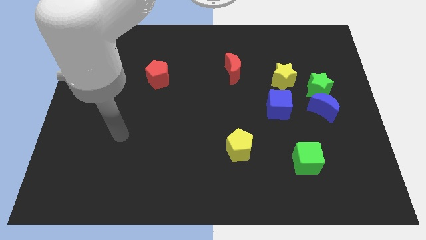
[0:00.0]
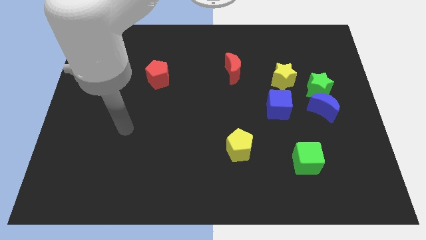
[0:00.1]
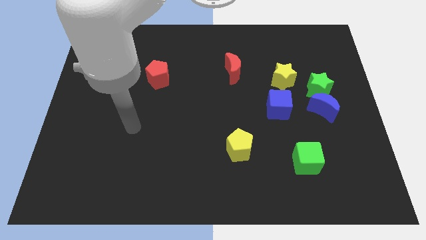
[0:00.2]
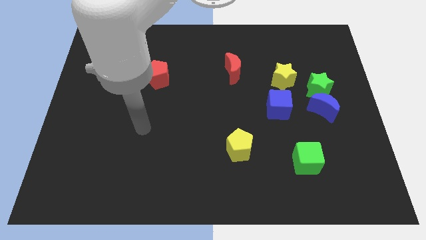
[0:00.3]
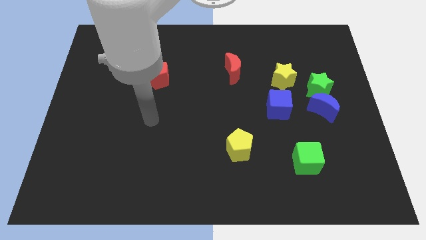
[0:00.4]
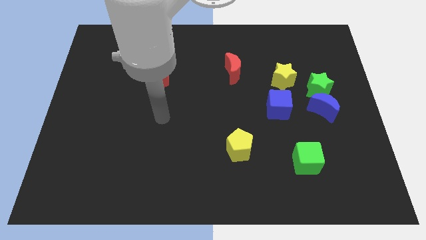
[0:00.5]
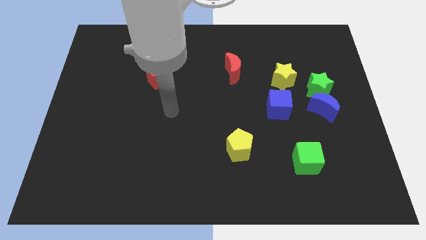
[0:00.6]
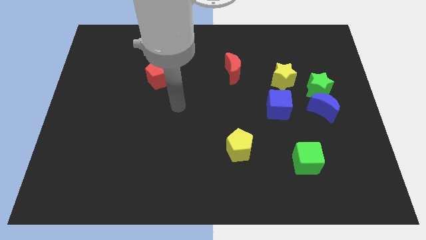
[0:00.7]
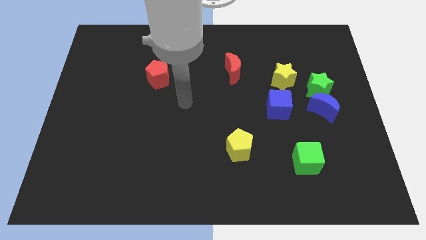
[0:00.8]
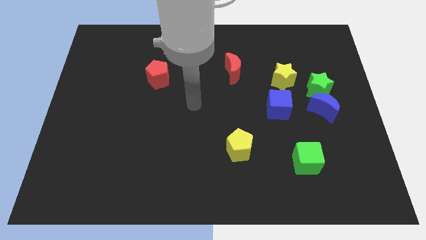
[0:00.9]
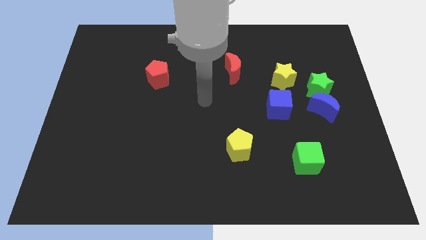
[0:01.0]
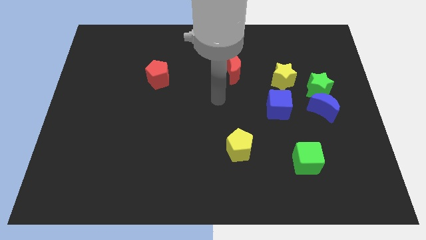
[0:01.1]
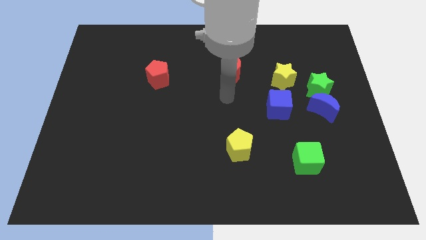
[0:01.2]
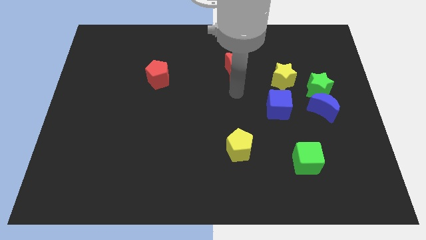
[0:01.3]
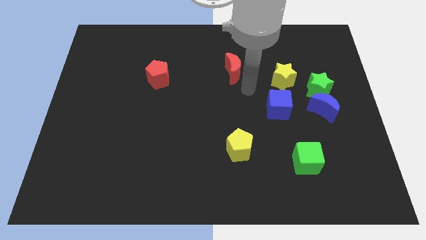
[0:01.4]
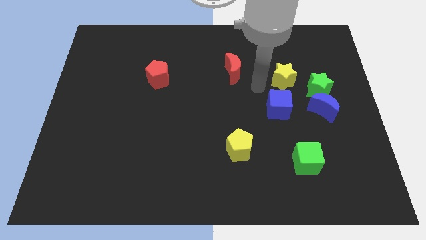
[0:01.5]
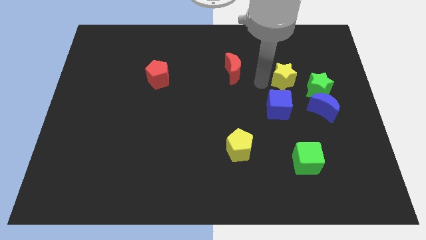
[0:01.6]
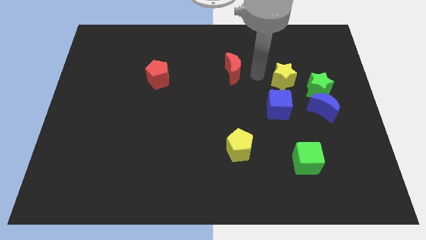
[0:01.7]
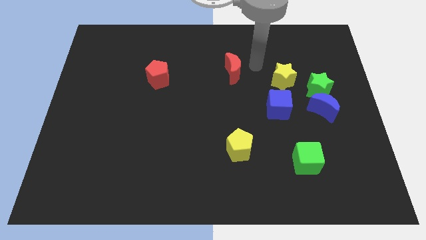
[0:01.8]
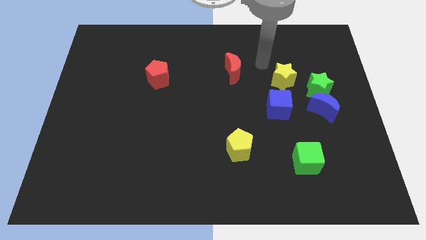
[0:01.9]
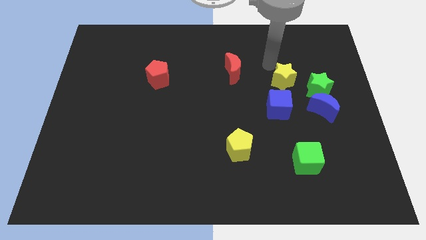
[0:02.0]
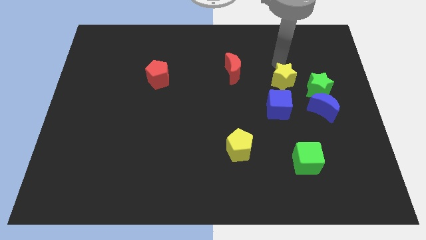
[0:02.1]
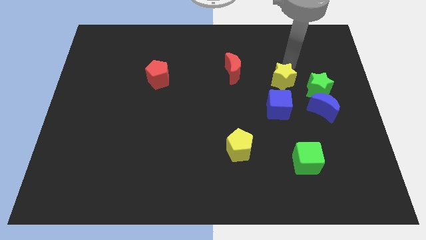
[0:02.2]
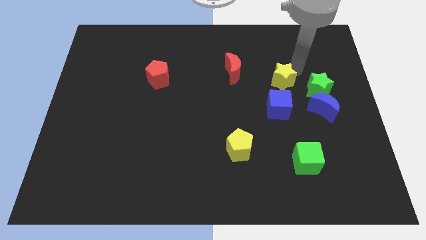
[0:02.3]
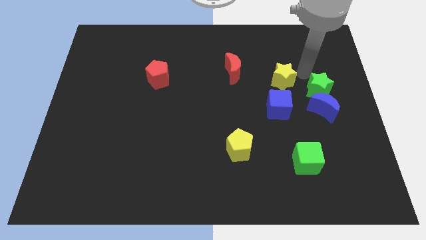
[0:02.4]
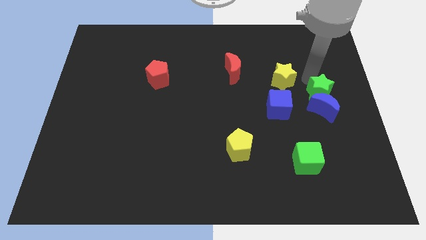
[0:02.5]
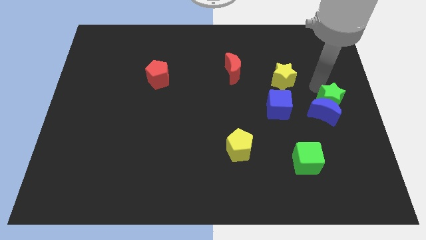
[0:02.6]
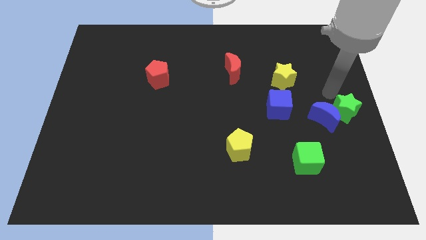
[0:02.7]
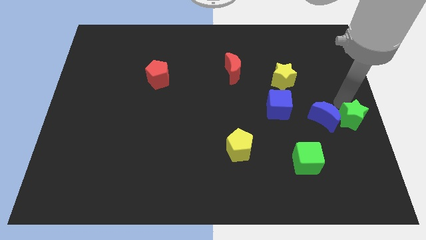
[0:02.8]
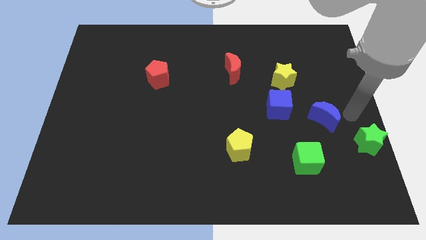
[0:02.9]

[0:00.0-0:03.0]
move the blue moon away from the green star

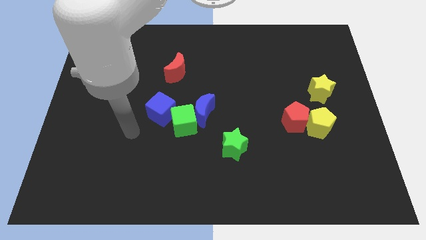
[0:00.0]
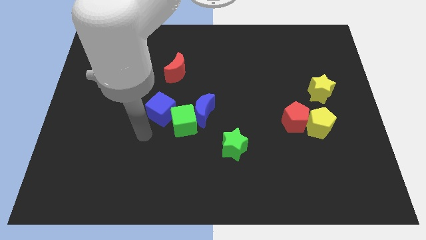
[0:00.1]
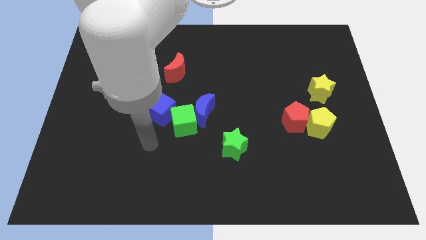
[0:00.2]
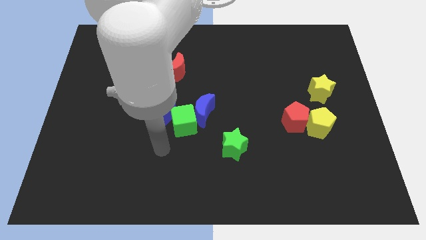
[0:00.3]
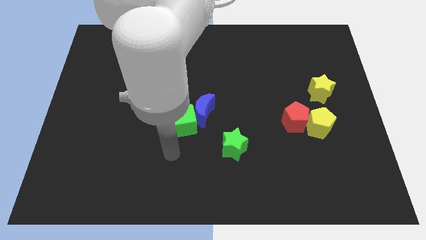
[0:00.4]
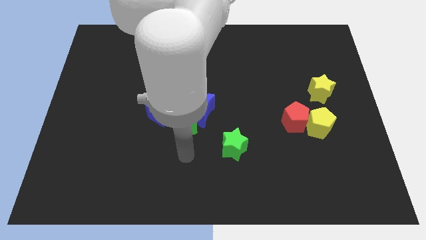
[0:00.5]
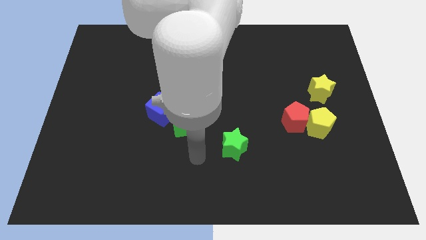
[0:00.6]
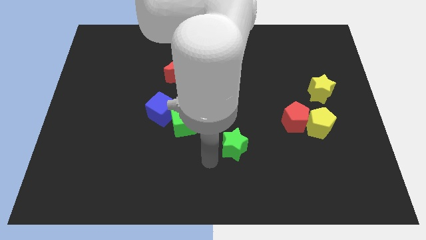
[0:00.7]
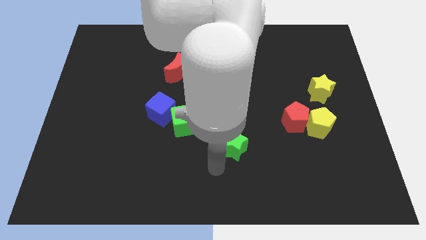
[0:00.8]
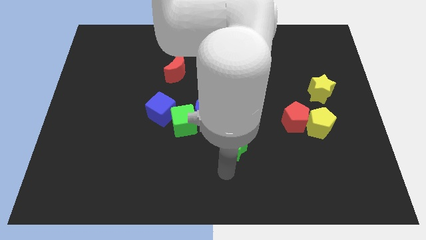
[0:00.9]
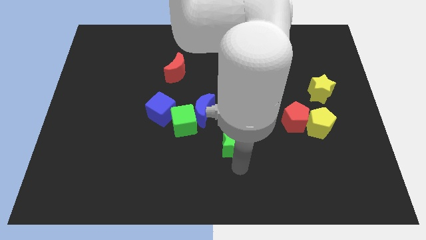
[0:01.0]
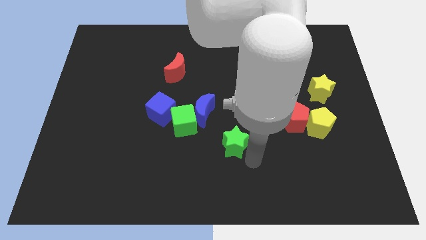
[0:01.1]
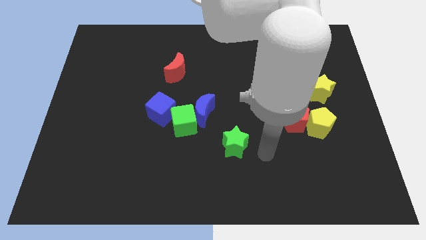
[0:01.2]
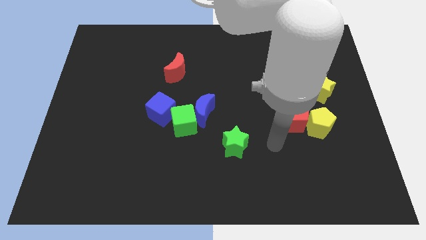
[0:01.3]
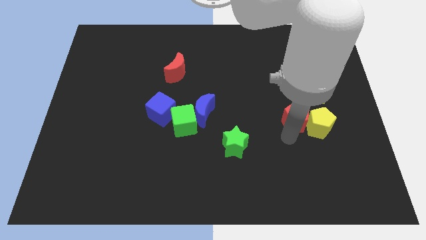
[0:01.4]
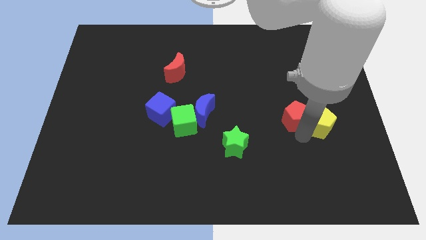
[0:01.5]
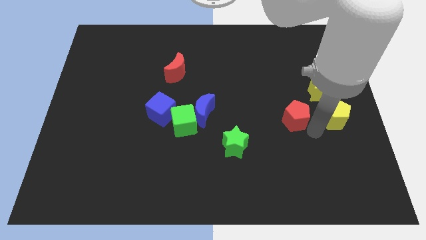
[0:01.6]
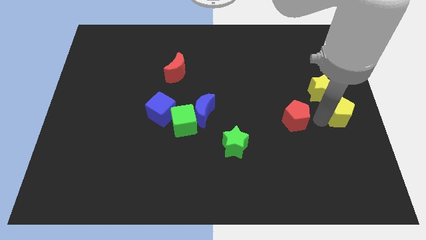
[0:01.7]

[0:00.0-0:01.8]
move the red pentagon away from the yellow pentagon

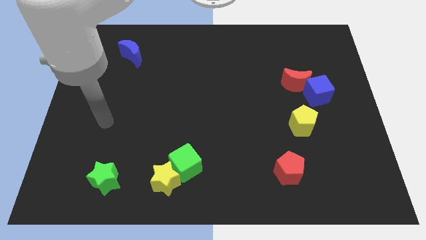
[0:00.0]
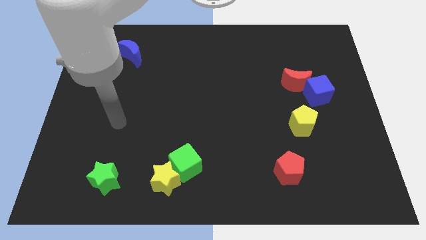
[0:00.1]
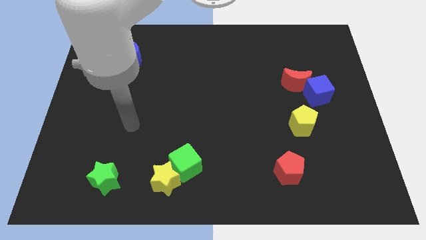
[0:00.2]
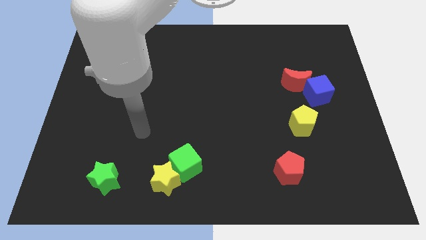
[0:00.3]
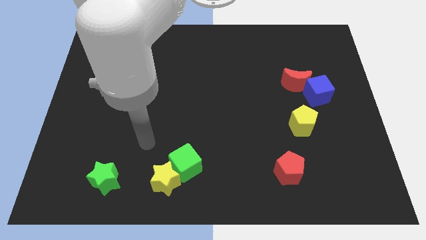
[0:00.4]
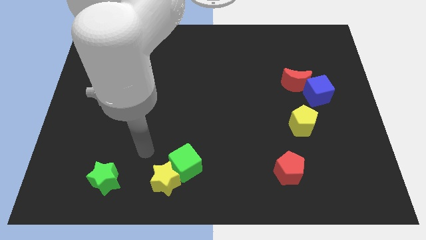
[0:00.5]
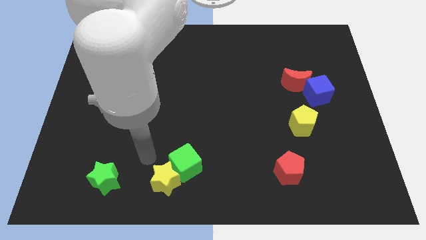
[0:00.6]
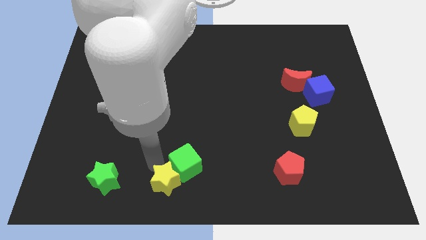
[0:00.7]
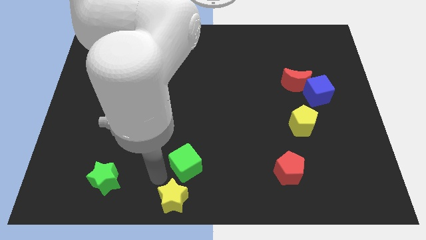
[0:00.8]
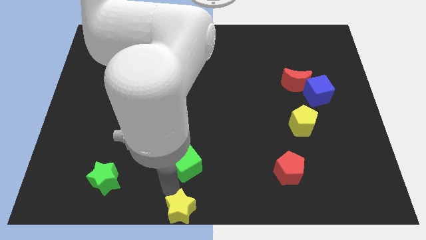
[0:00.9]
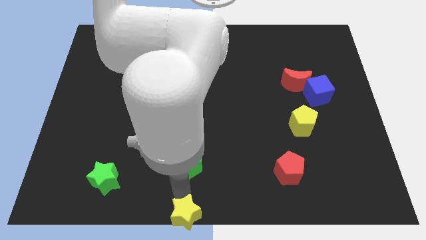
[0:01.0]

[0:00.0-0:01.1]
move the green cube away from the yellow star

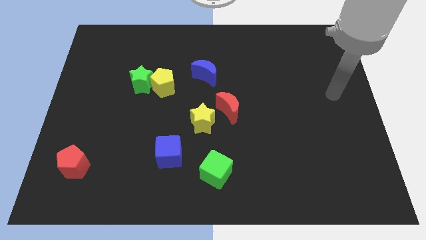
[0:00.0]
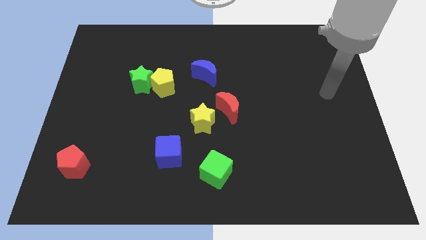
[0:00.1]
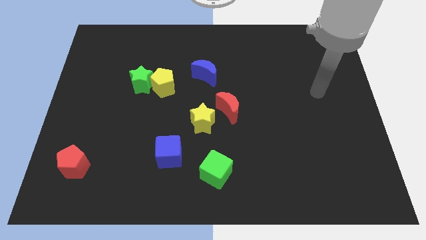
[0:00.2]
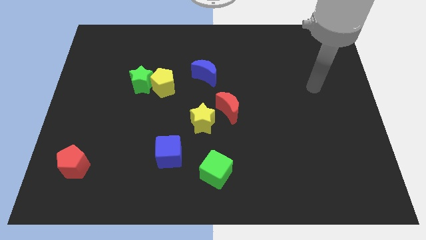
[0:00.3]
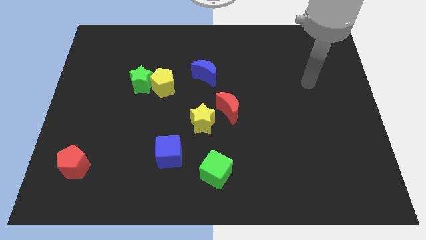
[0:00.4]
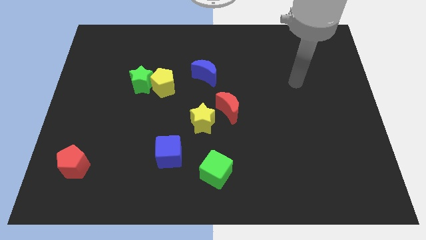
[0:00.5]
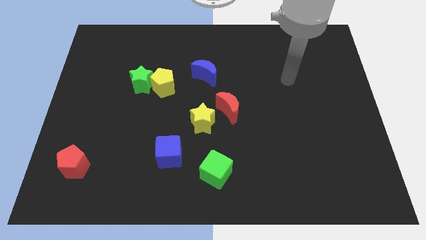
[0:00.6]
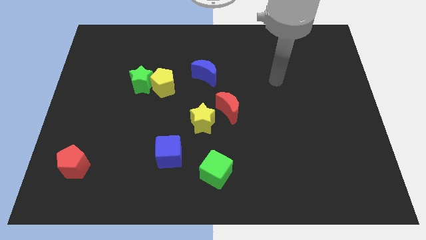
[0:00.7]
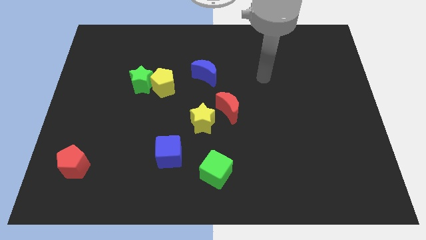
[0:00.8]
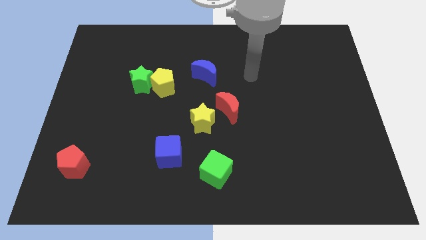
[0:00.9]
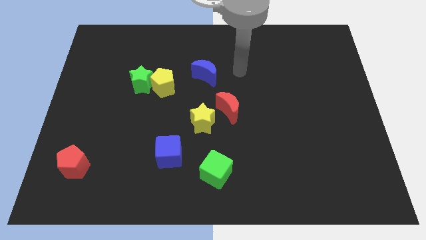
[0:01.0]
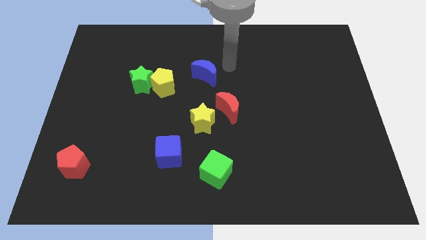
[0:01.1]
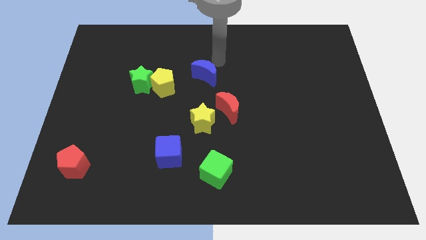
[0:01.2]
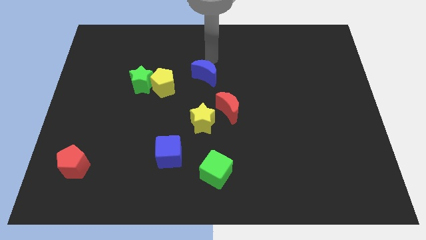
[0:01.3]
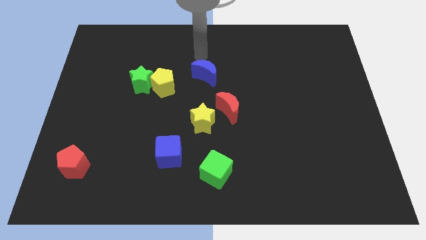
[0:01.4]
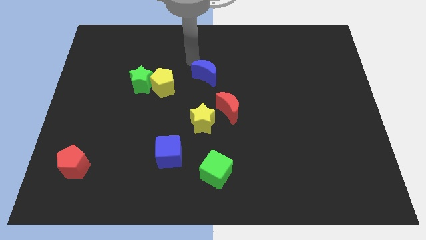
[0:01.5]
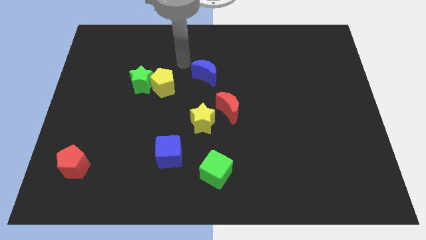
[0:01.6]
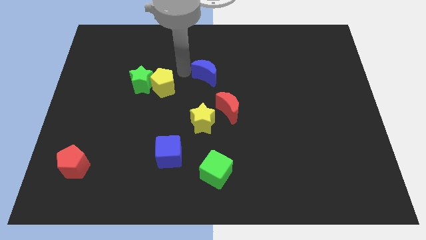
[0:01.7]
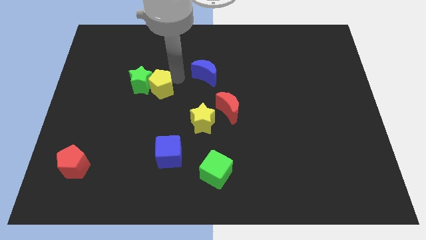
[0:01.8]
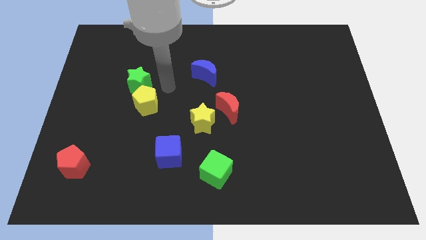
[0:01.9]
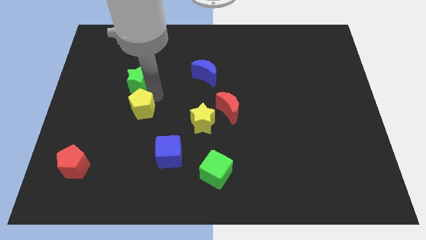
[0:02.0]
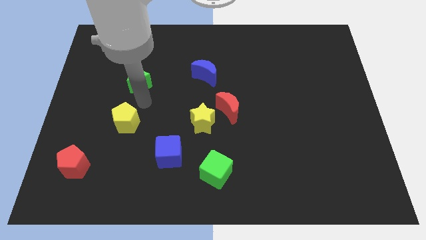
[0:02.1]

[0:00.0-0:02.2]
separate the green star from the yellow pentagon

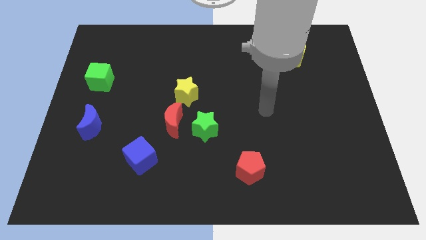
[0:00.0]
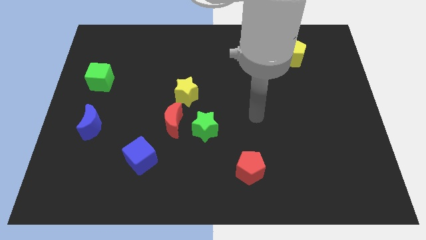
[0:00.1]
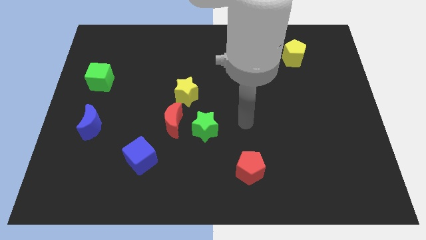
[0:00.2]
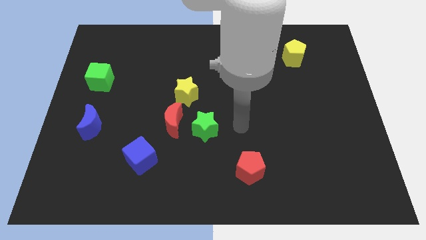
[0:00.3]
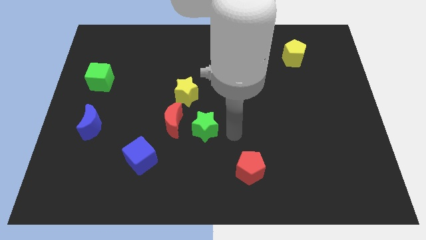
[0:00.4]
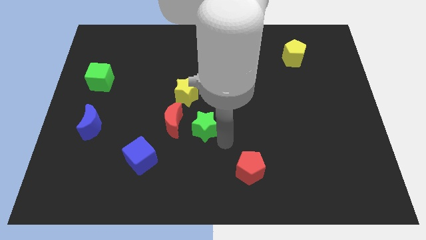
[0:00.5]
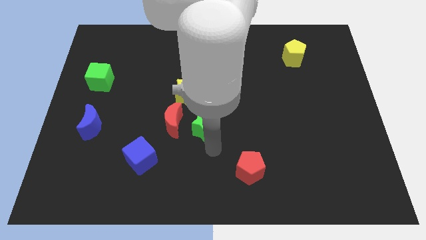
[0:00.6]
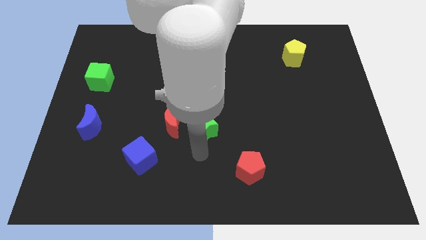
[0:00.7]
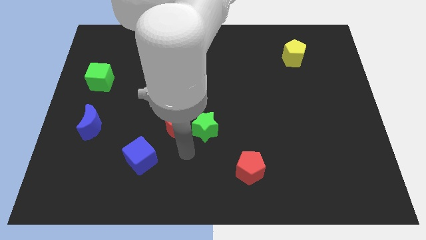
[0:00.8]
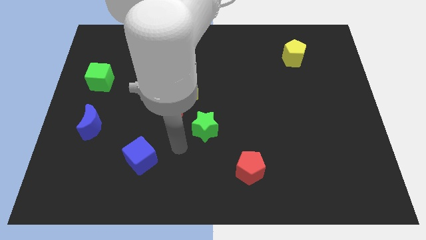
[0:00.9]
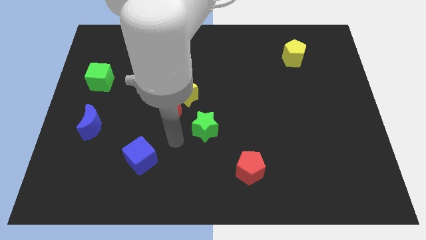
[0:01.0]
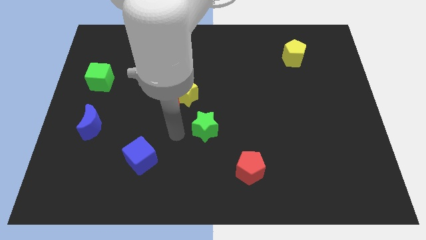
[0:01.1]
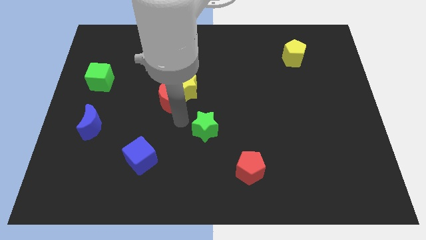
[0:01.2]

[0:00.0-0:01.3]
separate the green star from the red moon

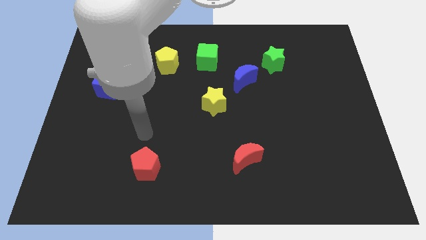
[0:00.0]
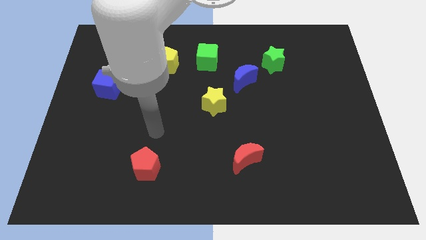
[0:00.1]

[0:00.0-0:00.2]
pull the blue moon apart from the green star
